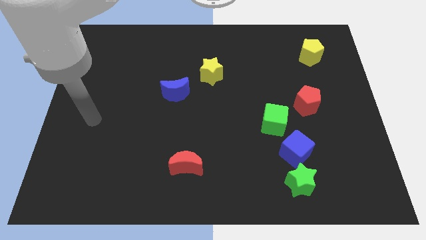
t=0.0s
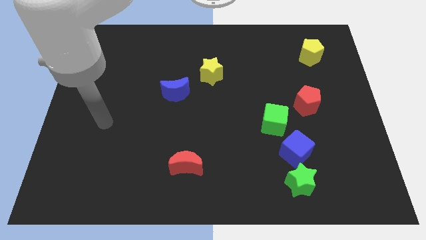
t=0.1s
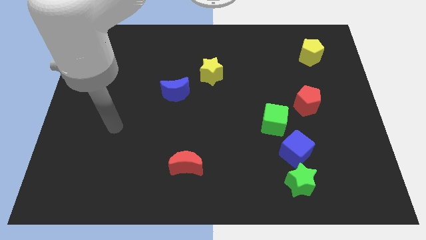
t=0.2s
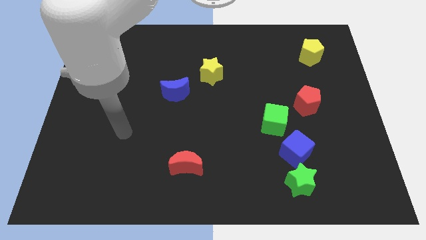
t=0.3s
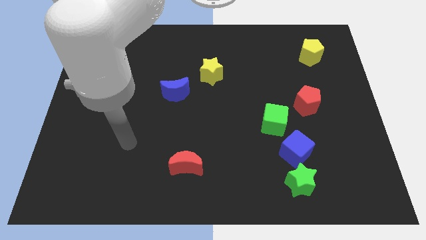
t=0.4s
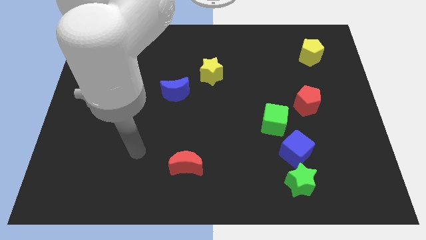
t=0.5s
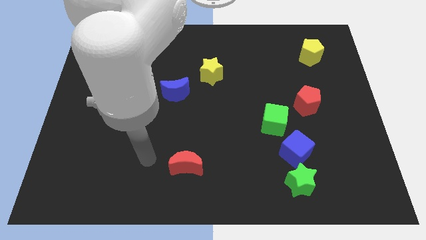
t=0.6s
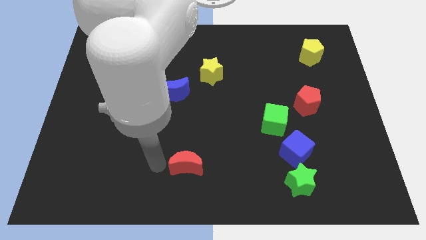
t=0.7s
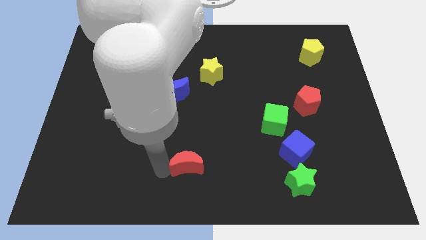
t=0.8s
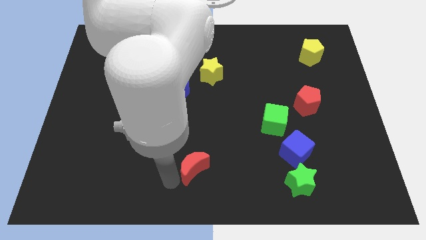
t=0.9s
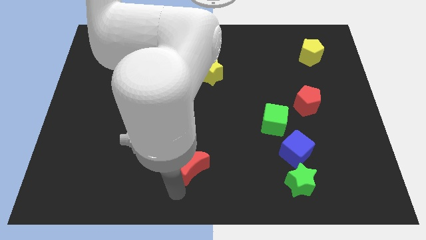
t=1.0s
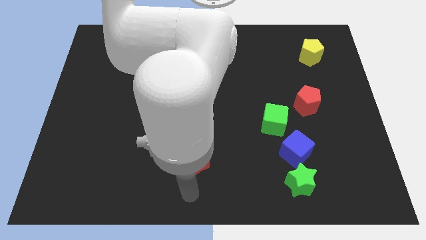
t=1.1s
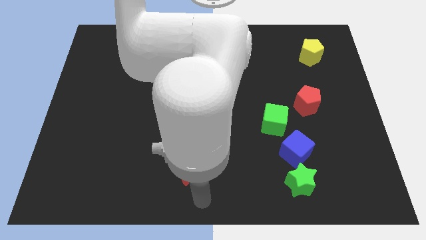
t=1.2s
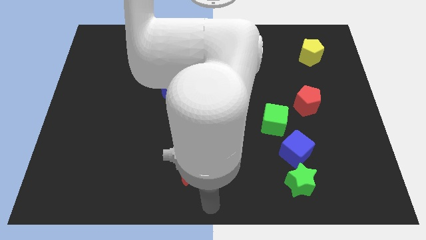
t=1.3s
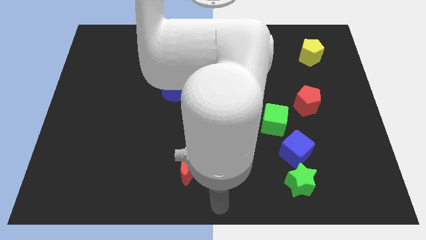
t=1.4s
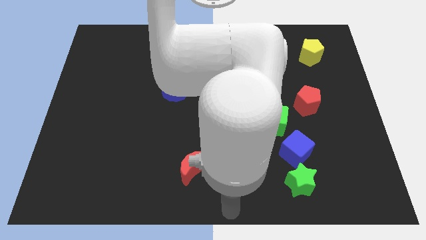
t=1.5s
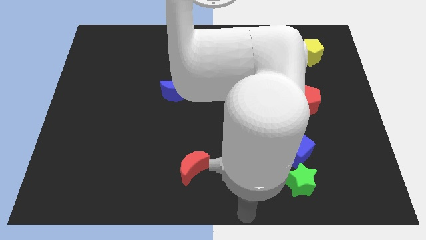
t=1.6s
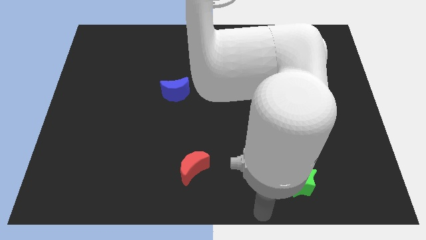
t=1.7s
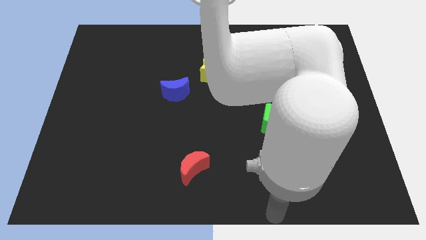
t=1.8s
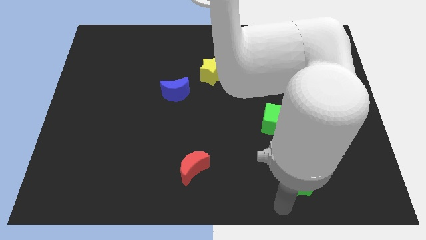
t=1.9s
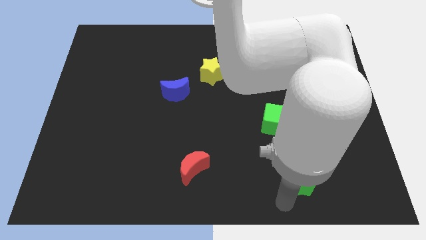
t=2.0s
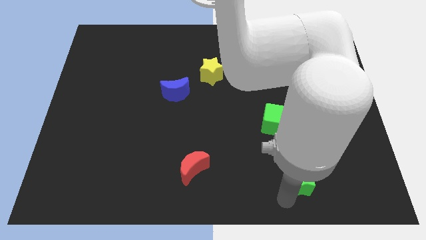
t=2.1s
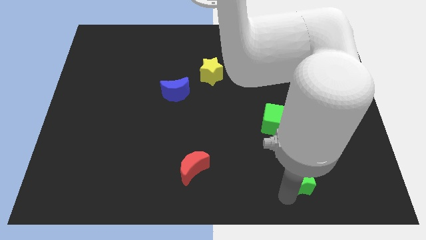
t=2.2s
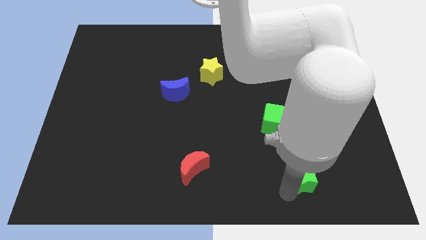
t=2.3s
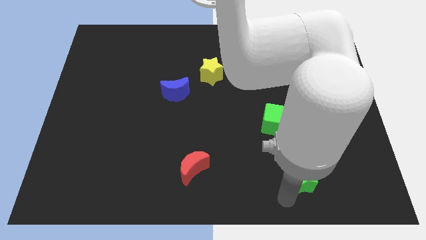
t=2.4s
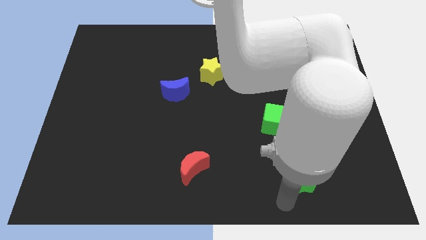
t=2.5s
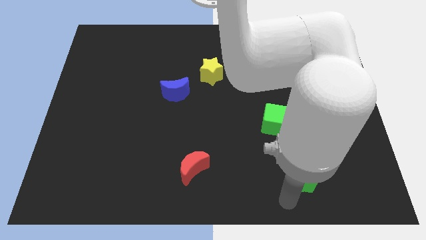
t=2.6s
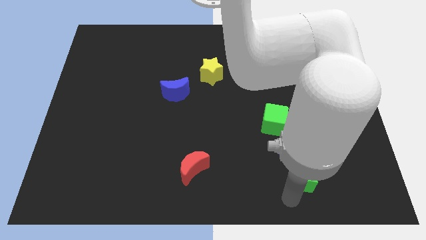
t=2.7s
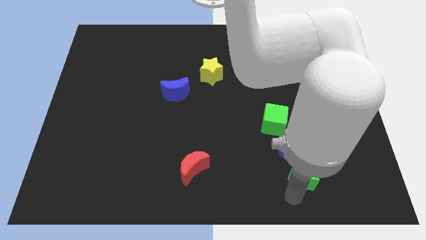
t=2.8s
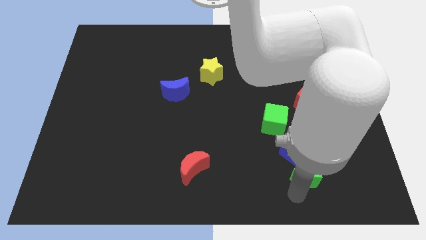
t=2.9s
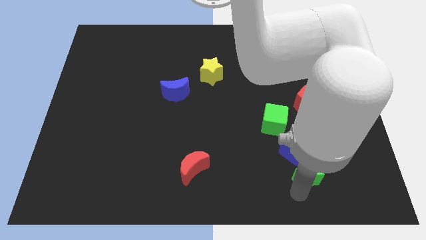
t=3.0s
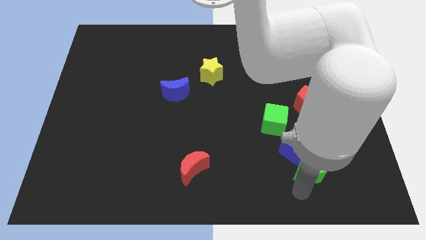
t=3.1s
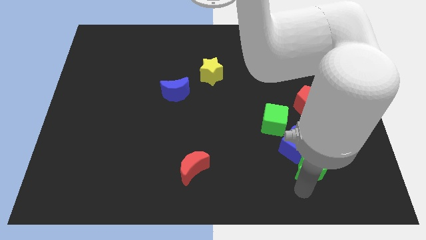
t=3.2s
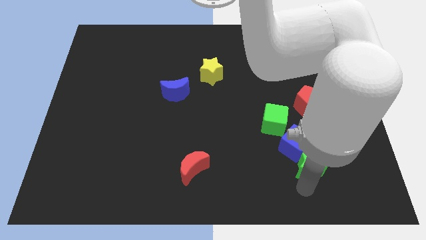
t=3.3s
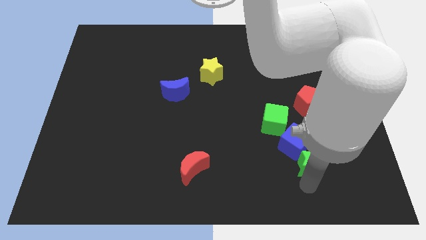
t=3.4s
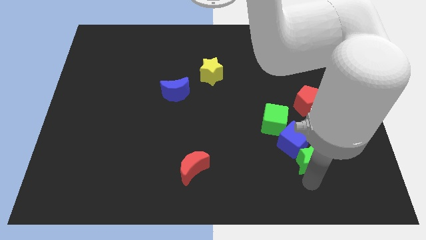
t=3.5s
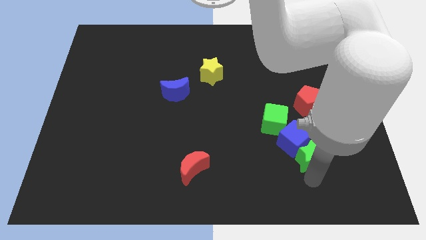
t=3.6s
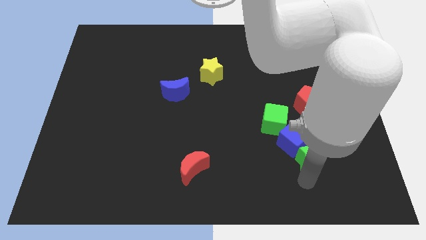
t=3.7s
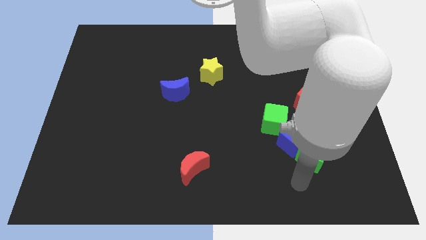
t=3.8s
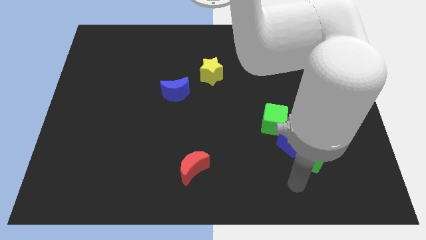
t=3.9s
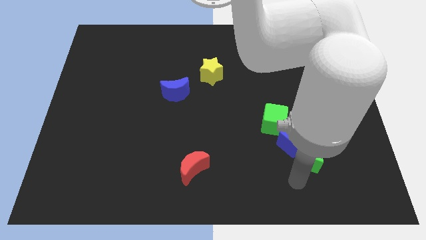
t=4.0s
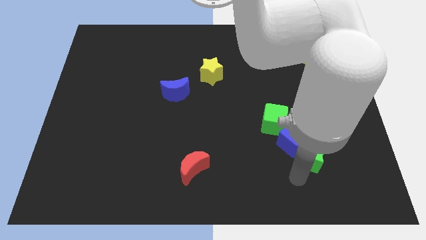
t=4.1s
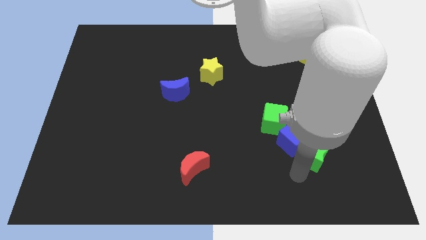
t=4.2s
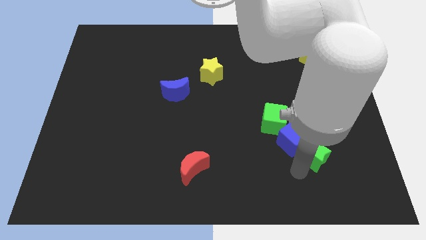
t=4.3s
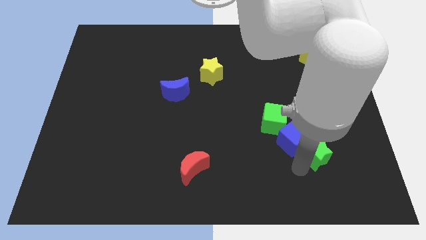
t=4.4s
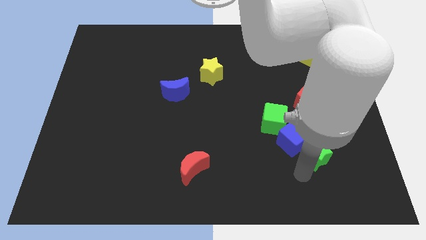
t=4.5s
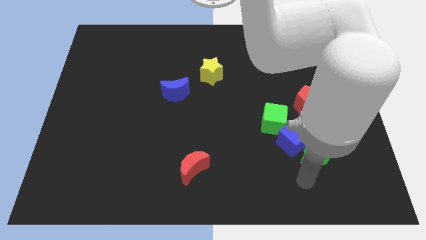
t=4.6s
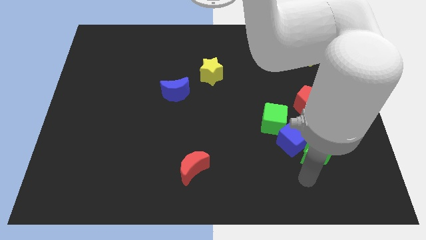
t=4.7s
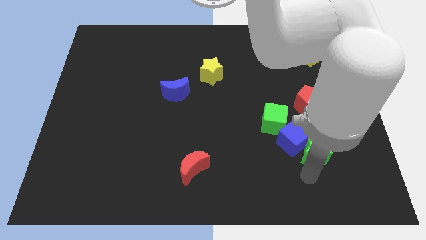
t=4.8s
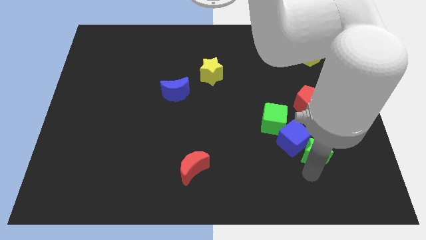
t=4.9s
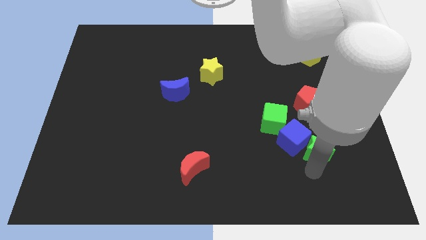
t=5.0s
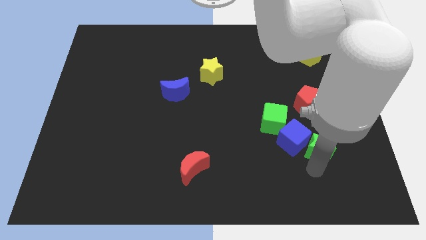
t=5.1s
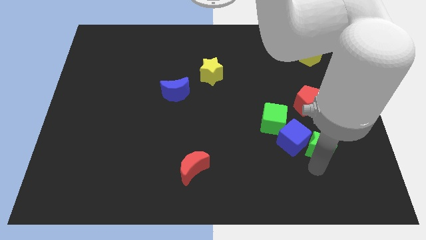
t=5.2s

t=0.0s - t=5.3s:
slightly push the green star up

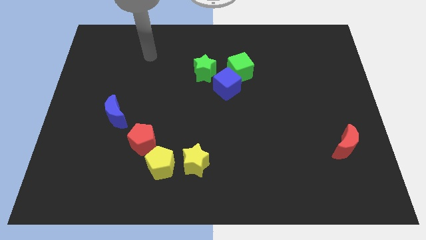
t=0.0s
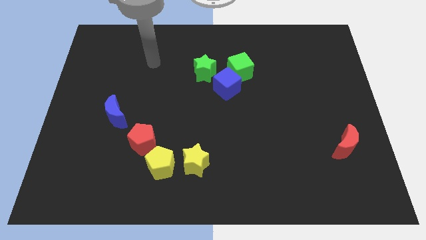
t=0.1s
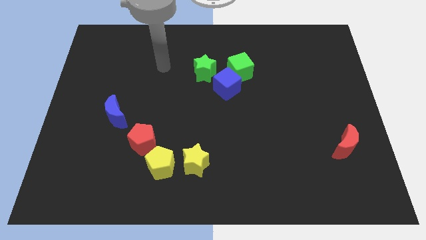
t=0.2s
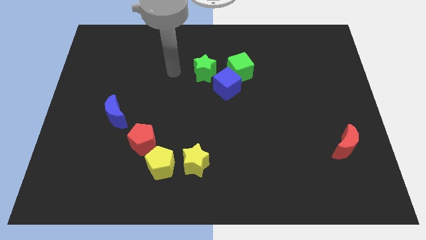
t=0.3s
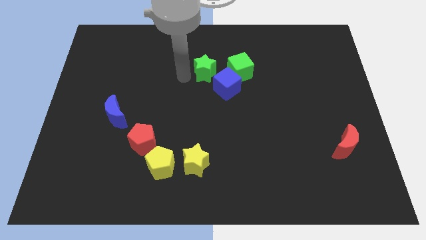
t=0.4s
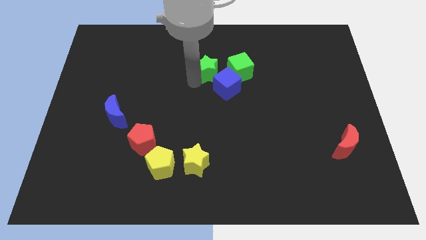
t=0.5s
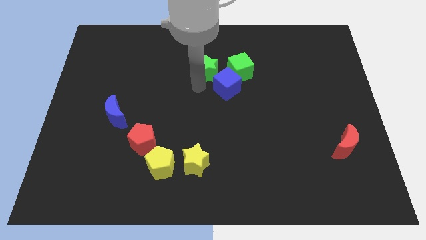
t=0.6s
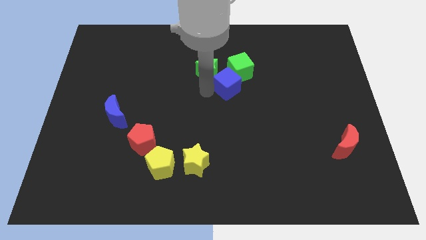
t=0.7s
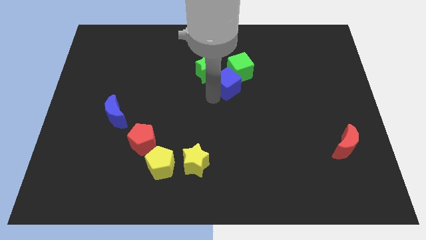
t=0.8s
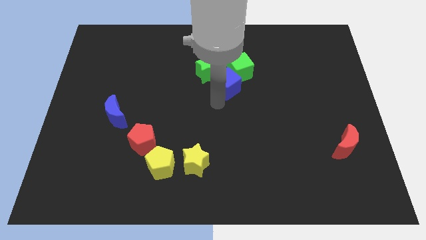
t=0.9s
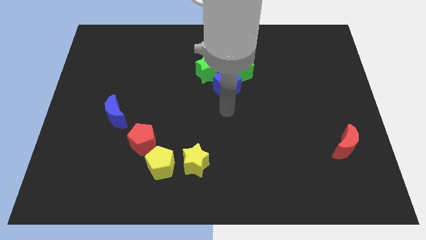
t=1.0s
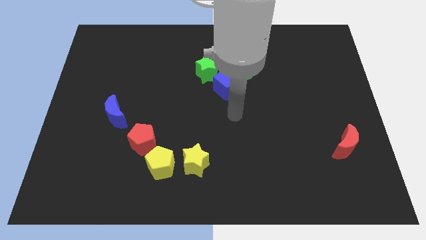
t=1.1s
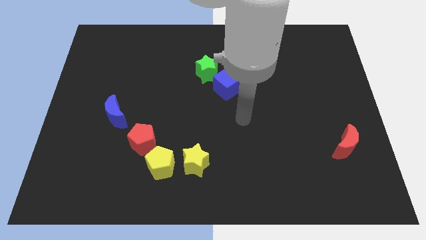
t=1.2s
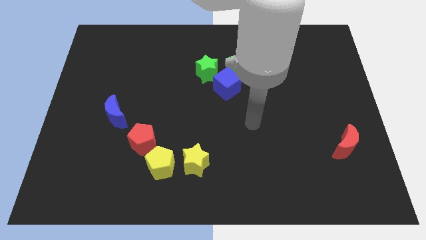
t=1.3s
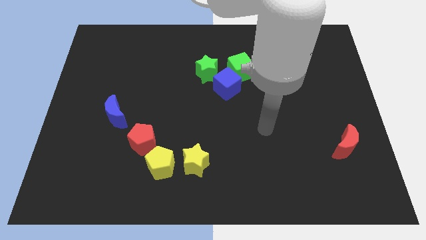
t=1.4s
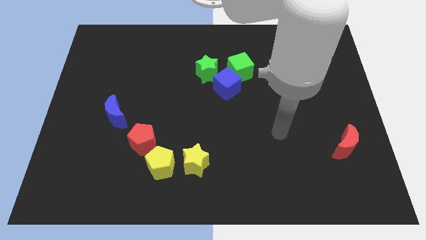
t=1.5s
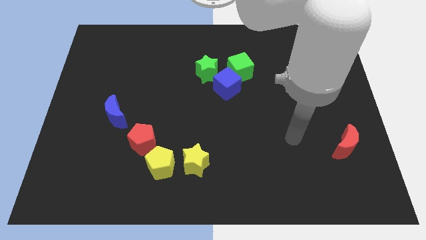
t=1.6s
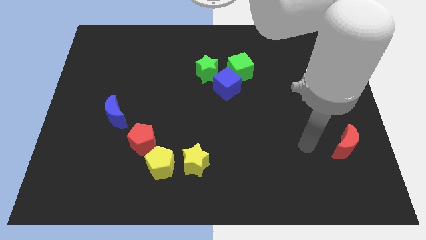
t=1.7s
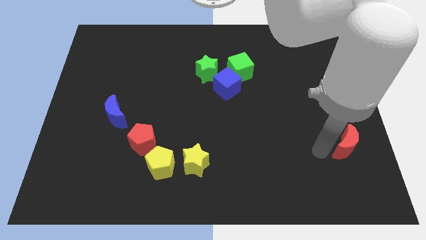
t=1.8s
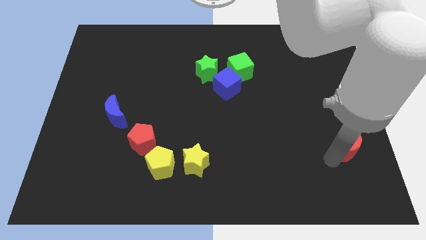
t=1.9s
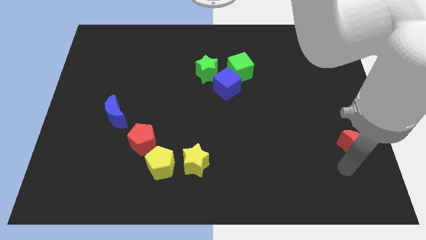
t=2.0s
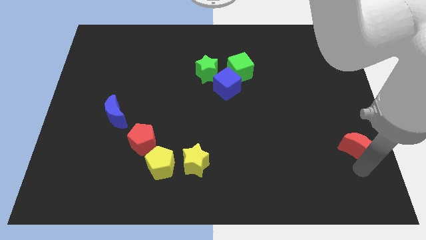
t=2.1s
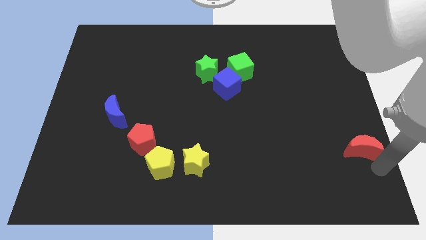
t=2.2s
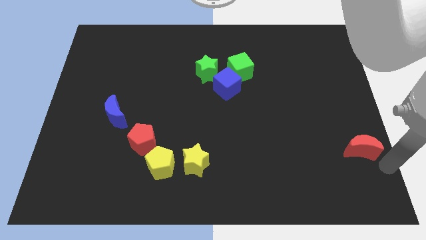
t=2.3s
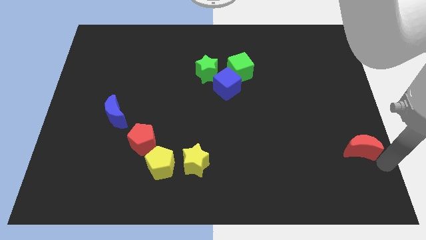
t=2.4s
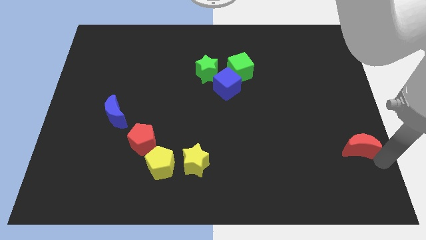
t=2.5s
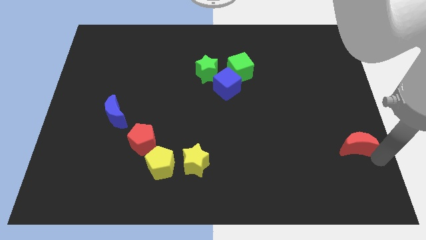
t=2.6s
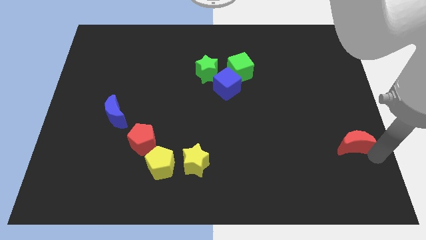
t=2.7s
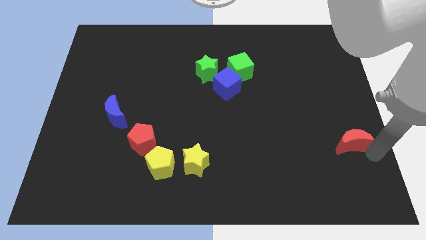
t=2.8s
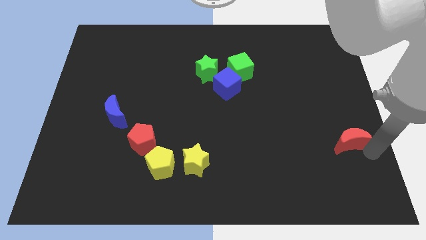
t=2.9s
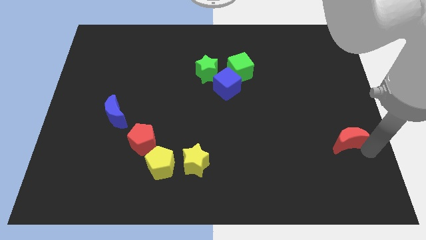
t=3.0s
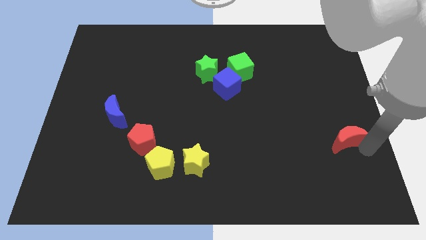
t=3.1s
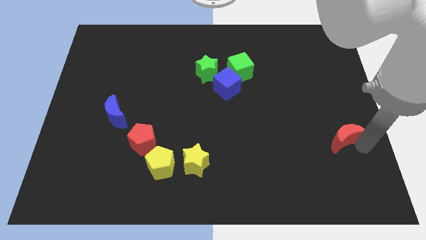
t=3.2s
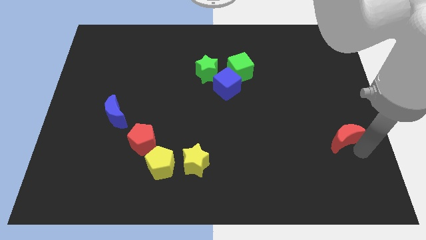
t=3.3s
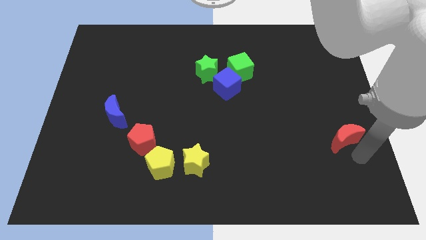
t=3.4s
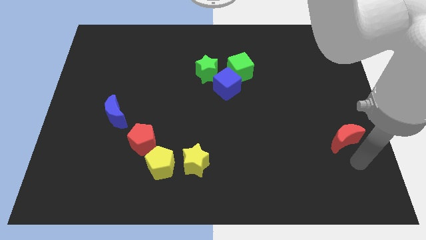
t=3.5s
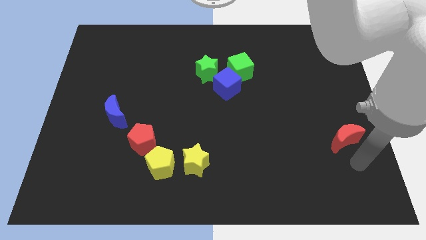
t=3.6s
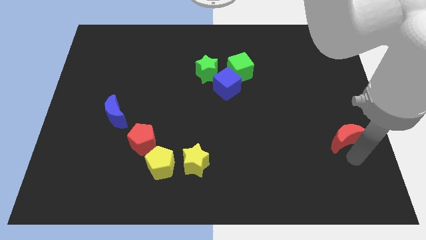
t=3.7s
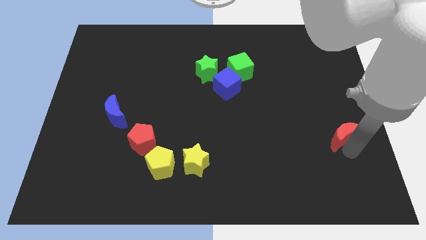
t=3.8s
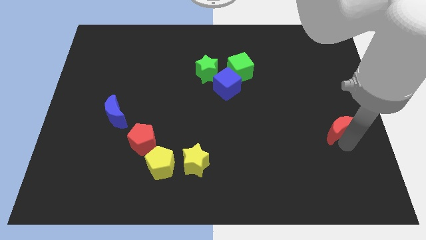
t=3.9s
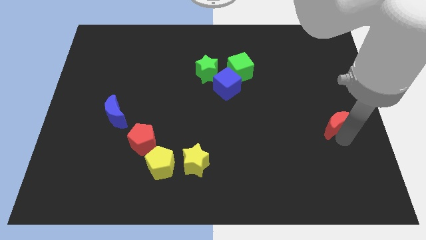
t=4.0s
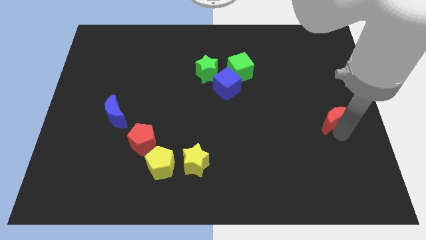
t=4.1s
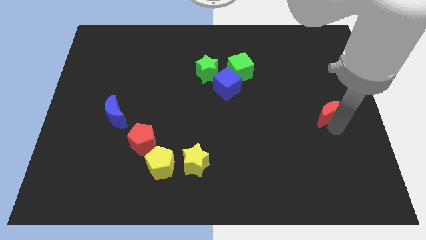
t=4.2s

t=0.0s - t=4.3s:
push the red moon upwards slightly
